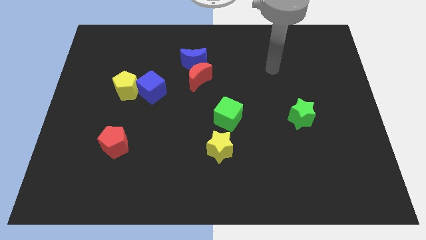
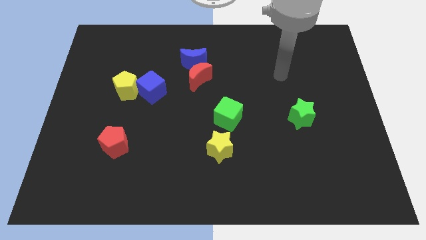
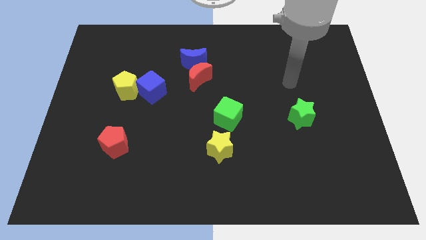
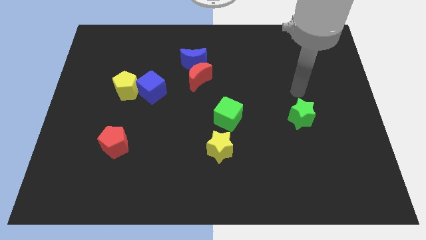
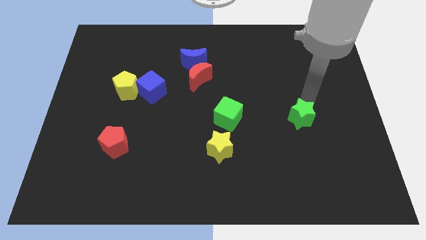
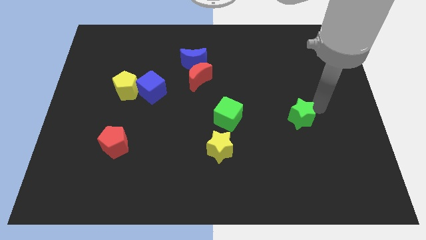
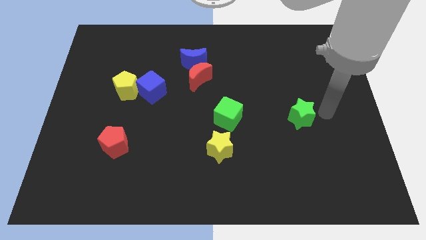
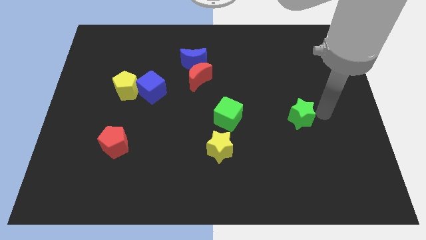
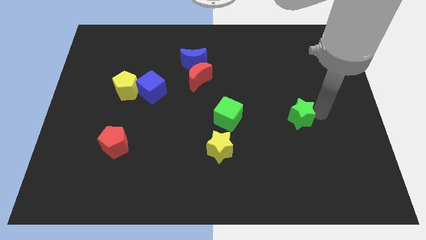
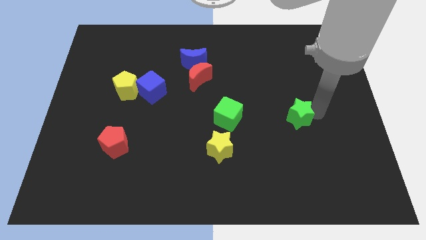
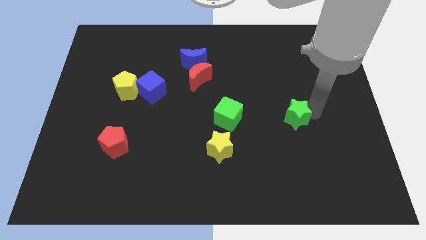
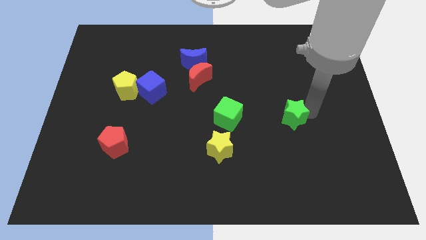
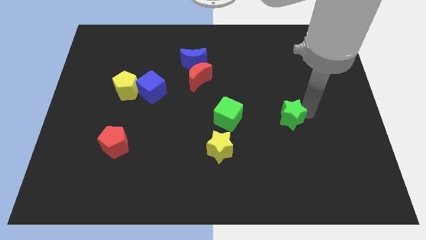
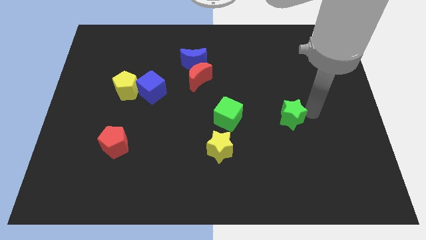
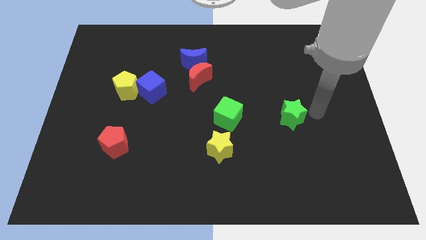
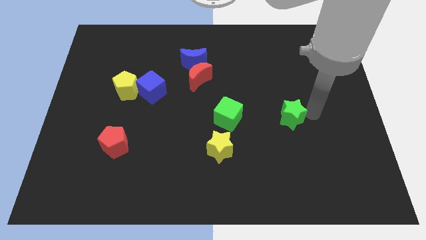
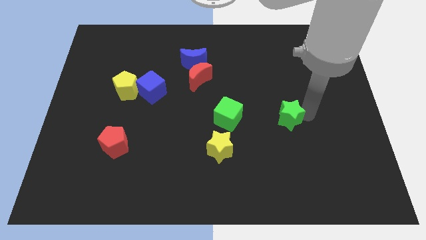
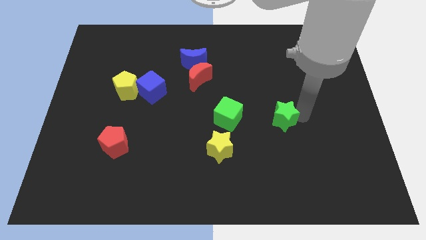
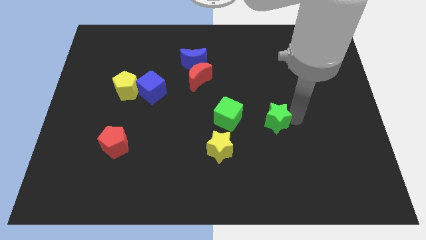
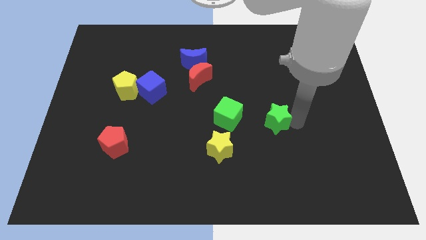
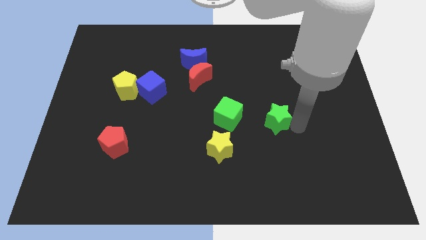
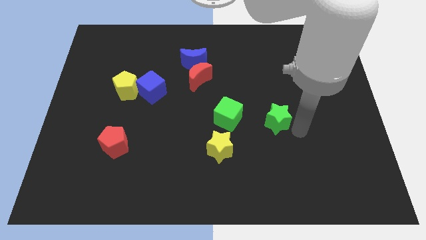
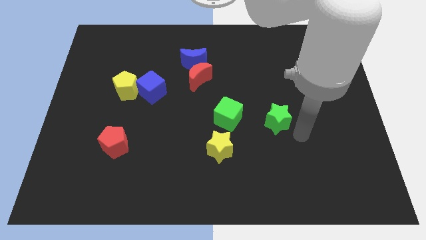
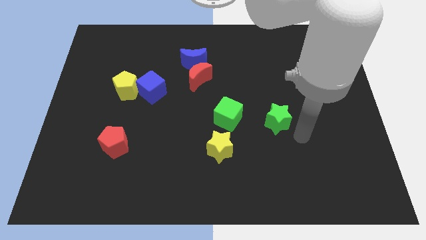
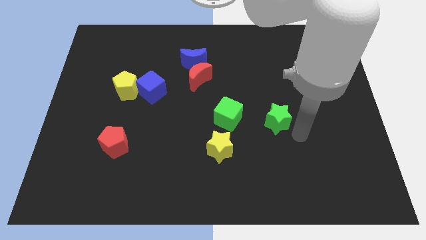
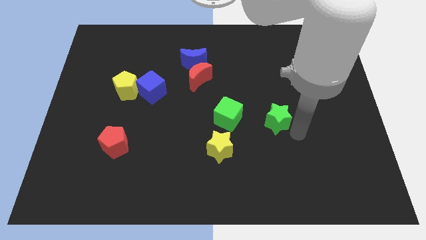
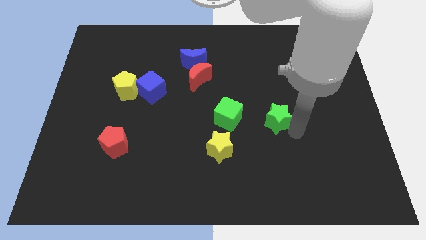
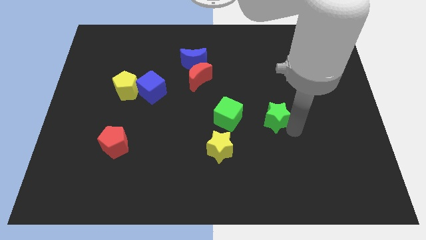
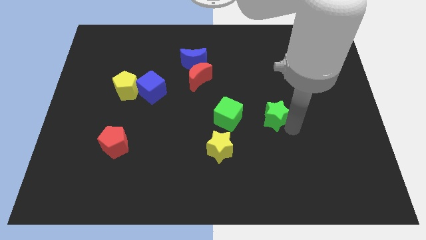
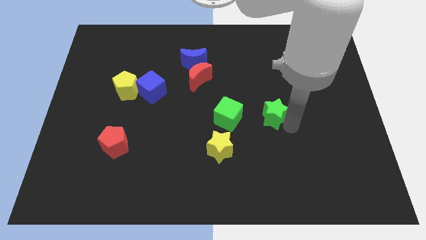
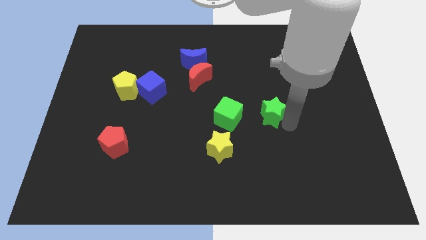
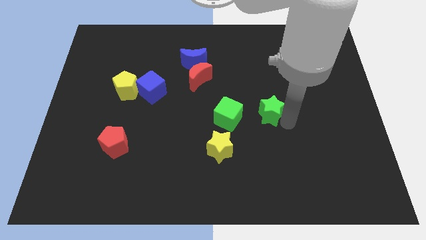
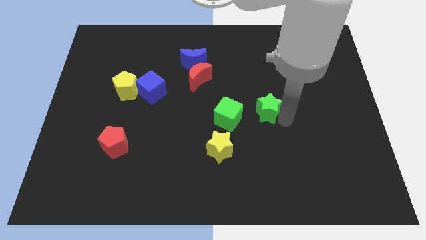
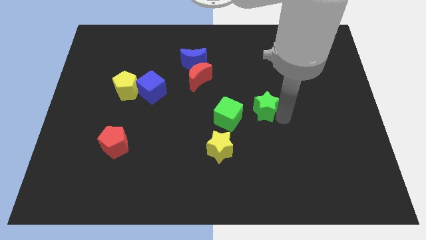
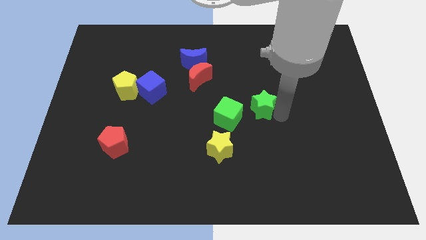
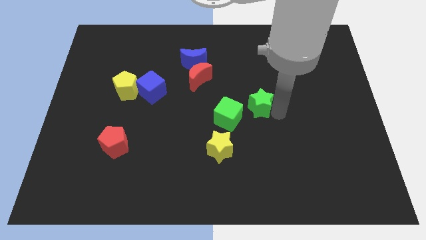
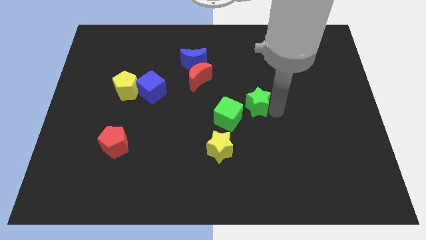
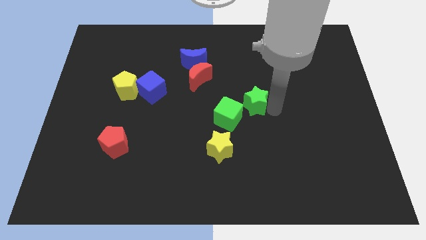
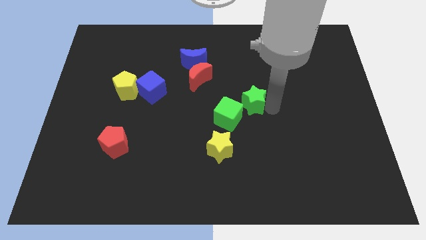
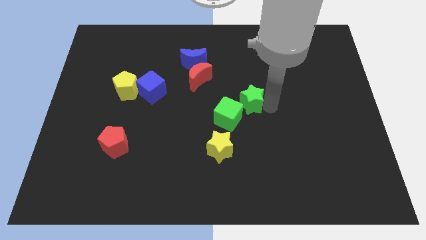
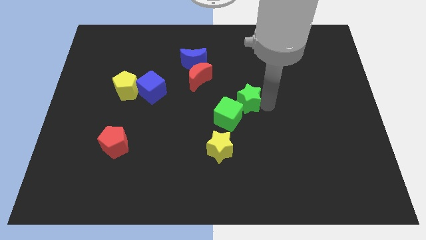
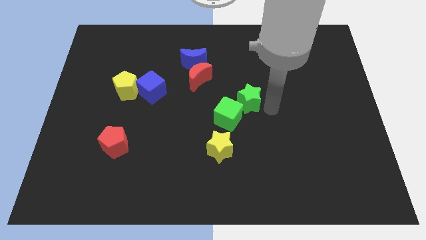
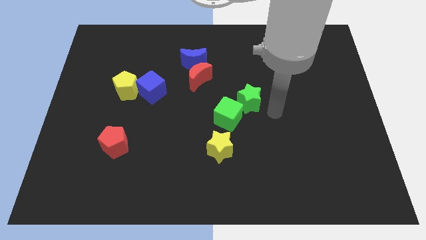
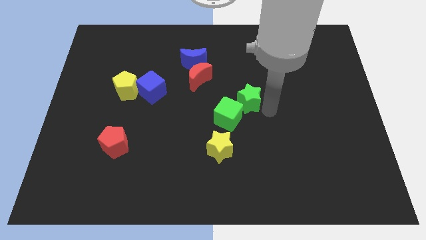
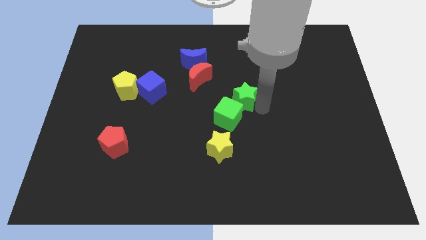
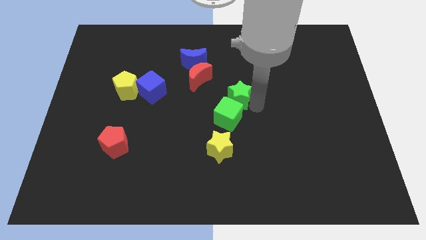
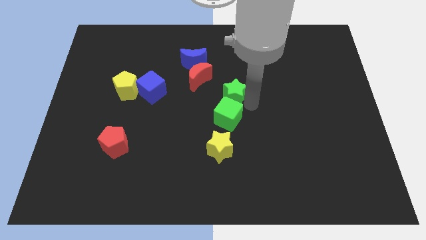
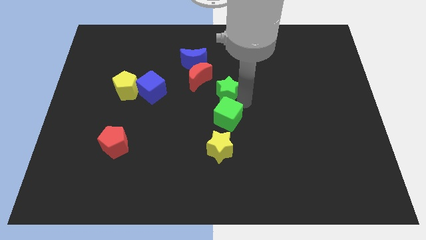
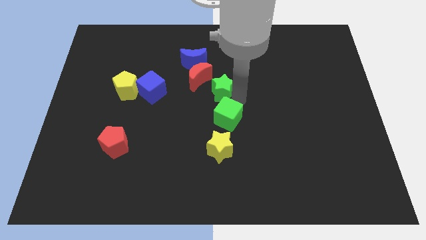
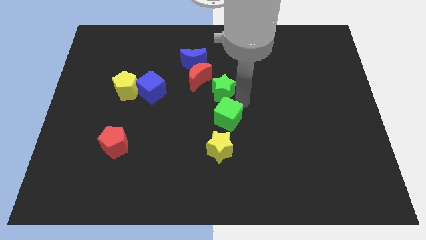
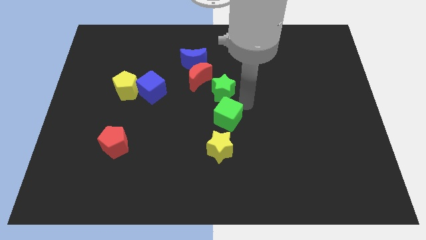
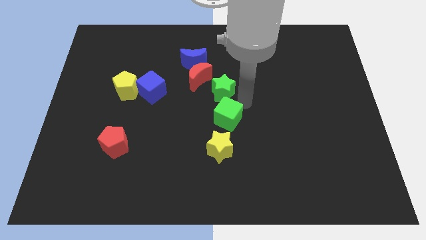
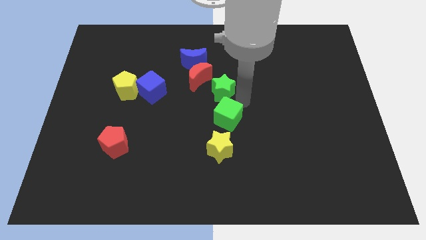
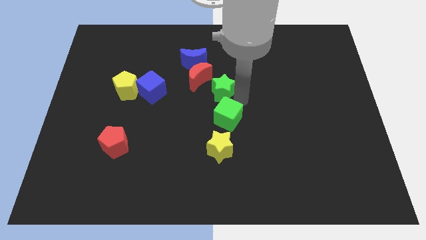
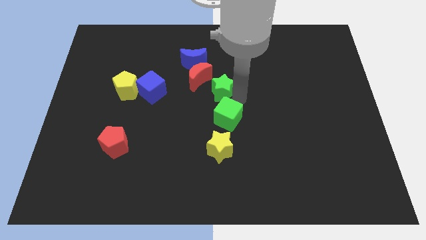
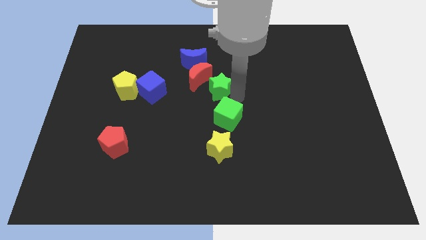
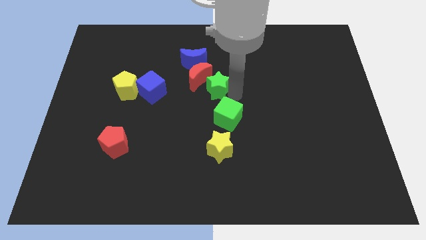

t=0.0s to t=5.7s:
slide the green star next to the red moon

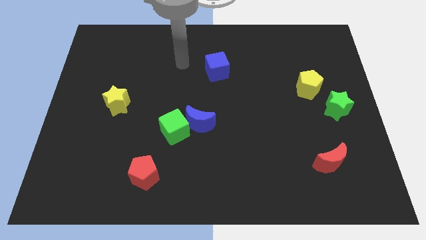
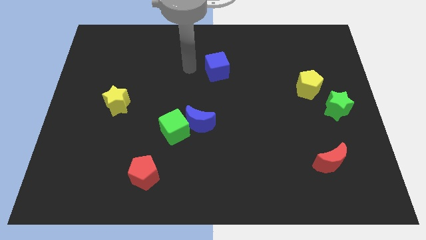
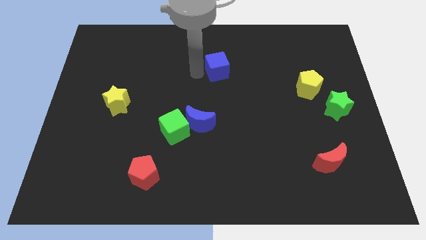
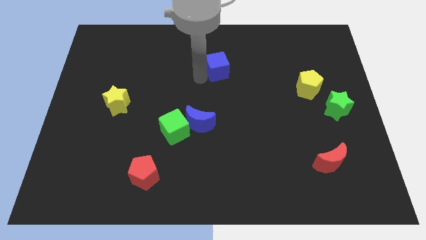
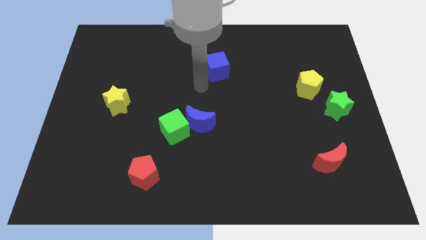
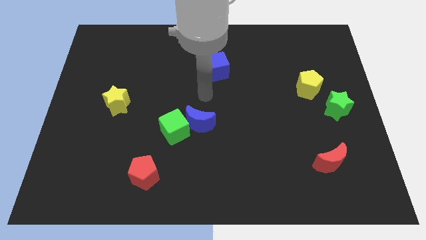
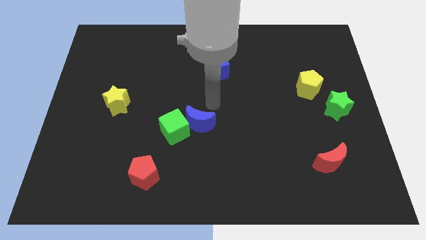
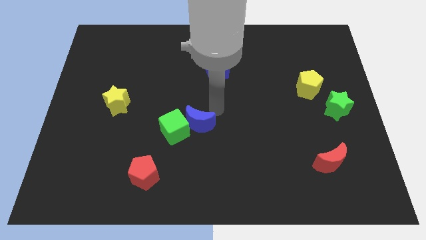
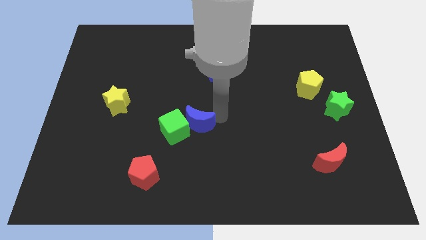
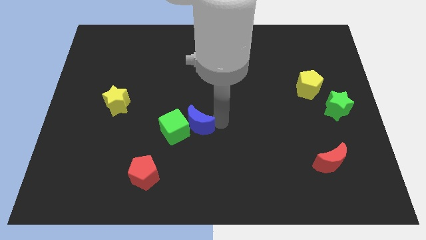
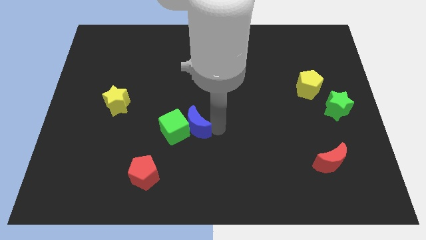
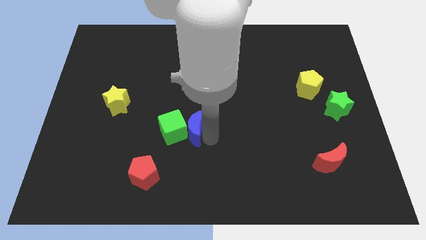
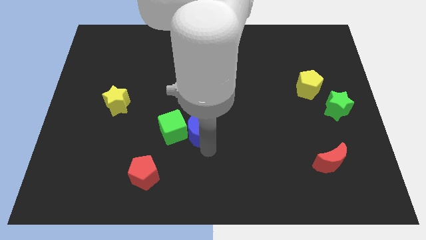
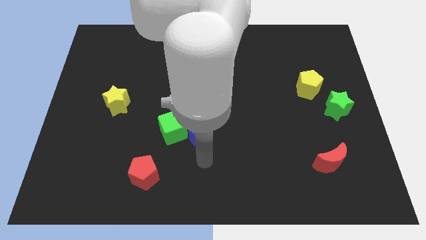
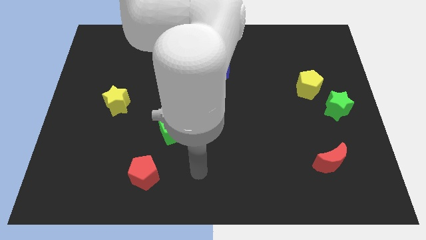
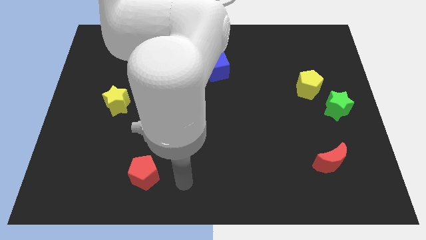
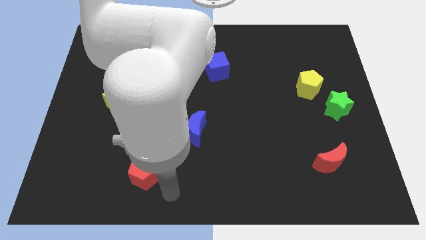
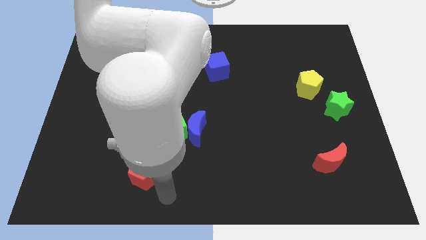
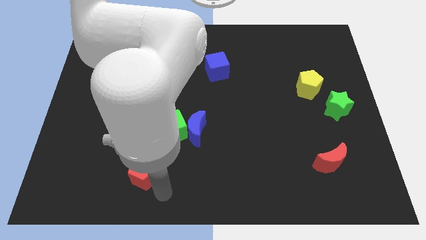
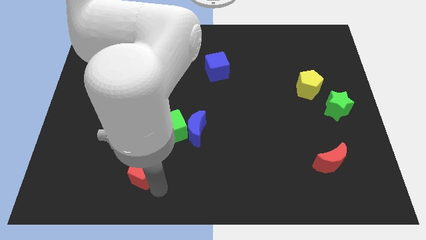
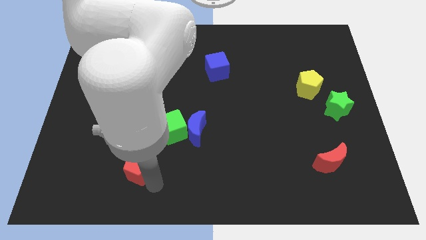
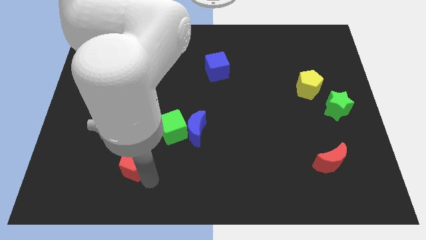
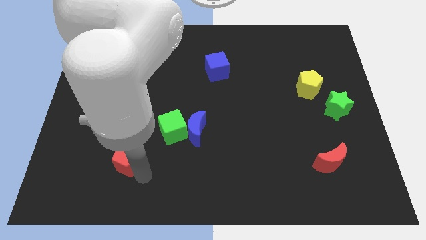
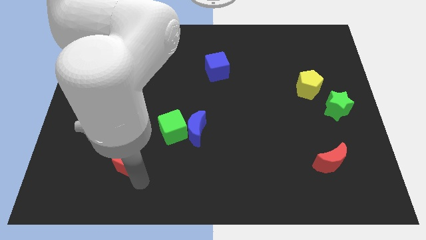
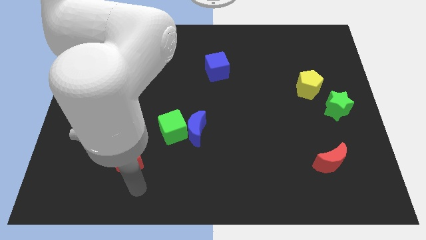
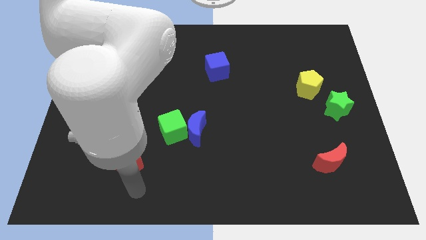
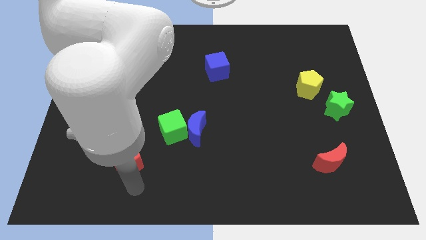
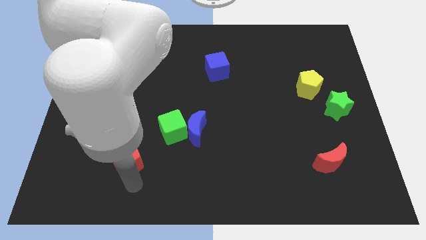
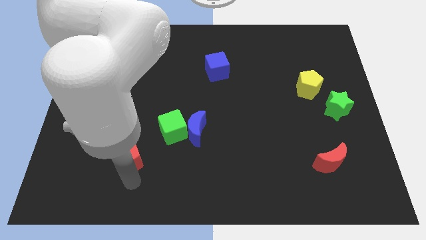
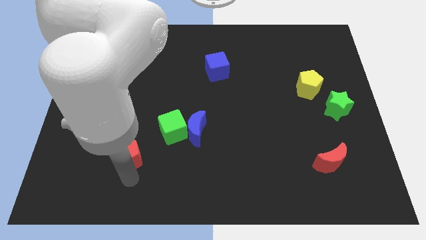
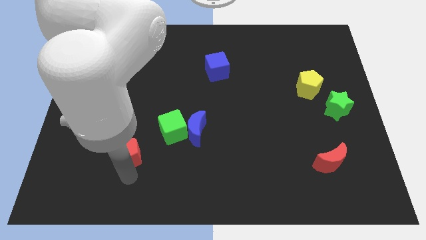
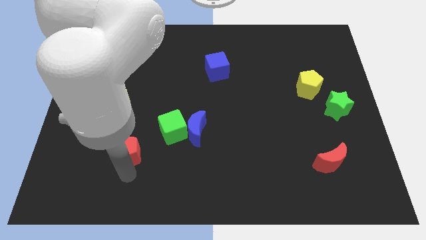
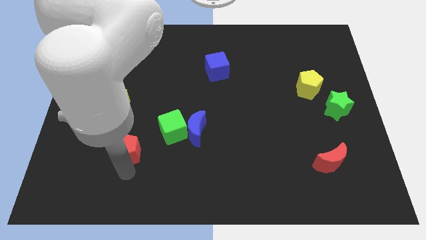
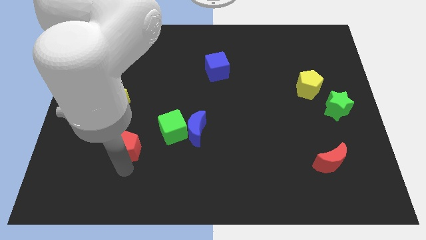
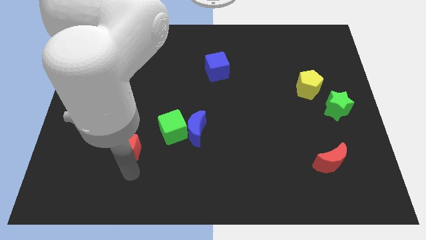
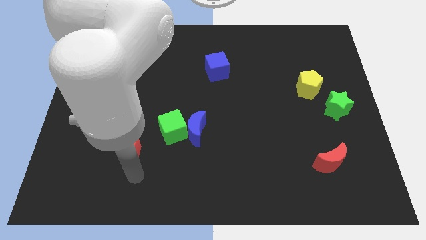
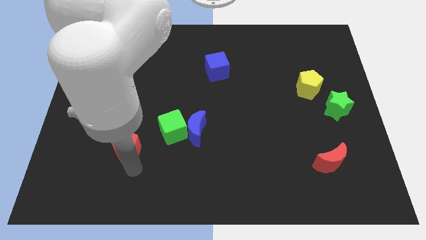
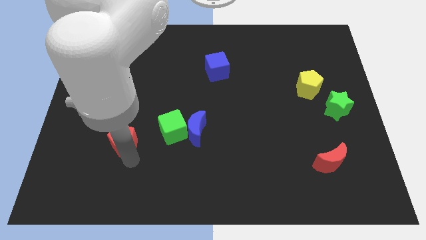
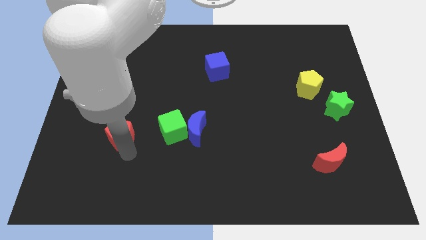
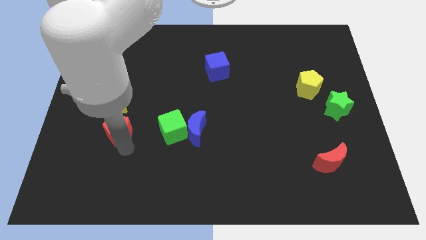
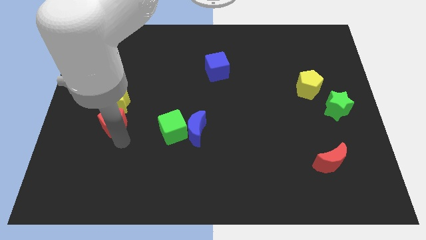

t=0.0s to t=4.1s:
push the red pentagon close to the yellow star
